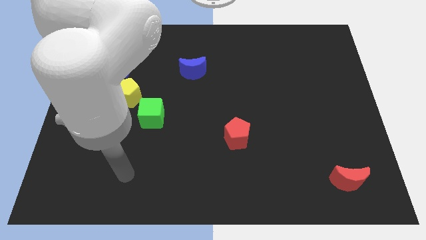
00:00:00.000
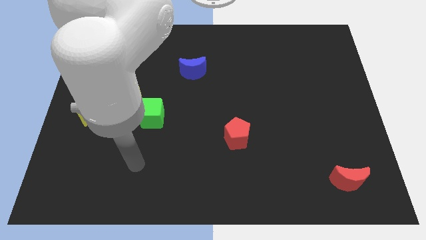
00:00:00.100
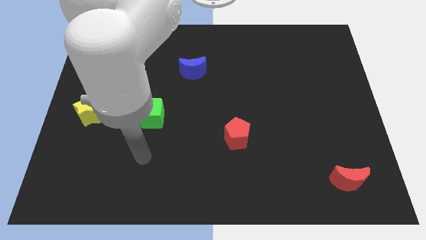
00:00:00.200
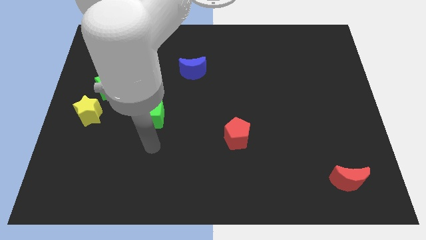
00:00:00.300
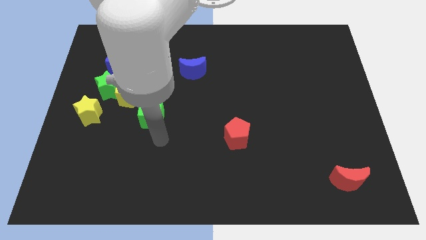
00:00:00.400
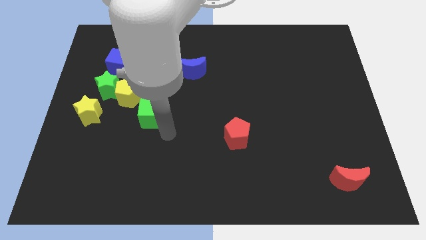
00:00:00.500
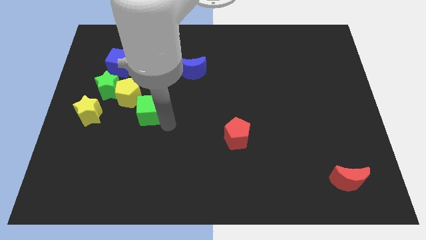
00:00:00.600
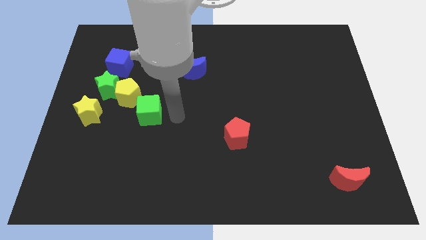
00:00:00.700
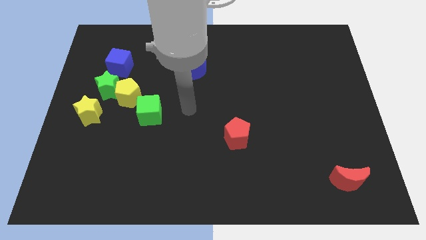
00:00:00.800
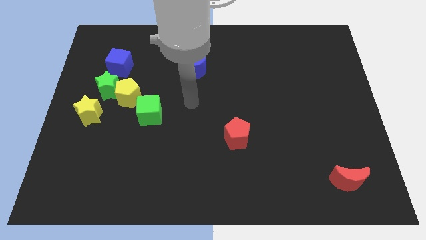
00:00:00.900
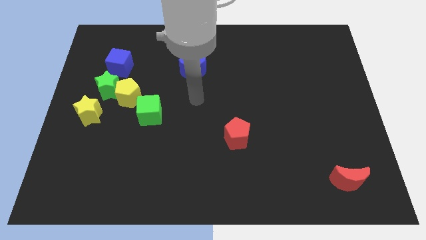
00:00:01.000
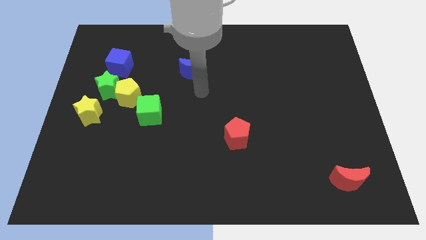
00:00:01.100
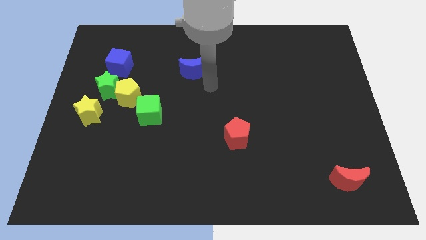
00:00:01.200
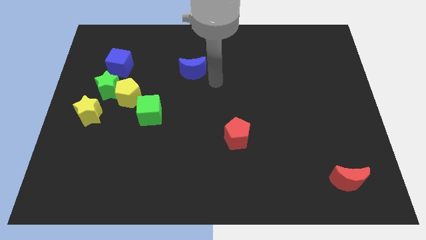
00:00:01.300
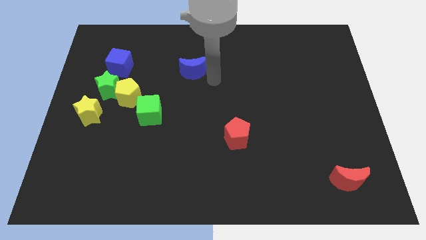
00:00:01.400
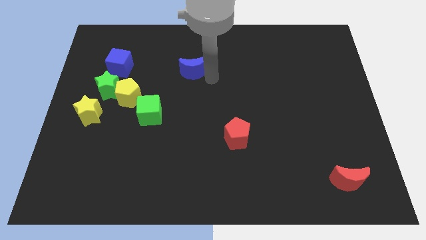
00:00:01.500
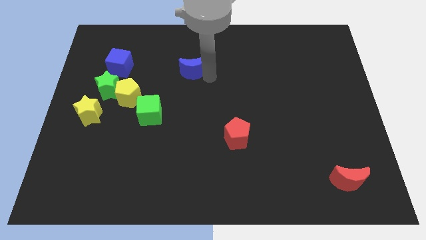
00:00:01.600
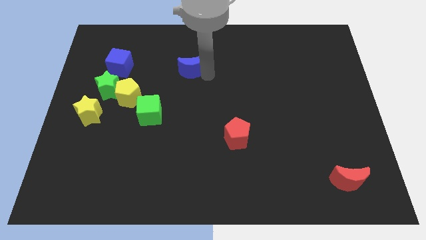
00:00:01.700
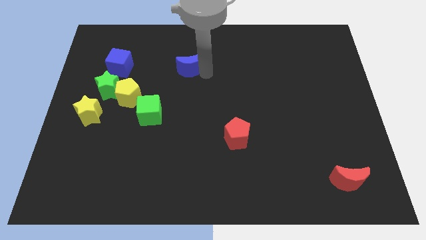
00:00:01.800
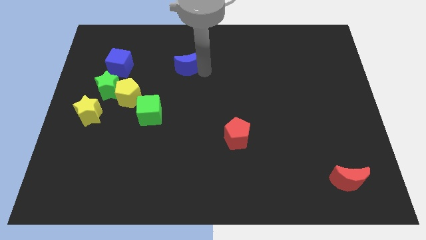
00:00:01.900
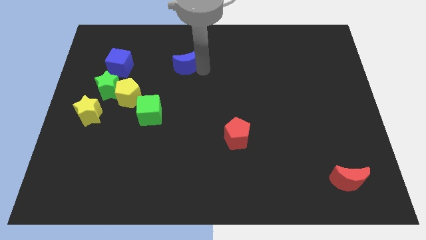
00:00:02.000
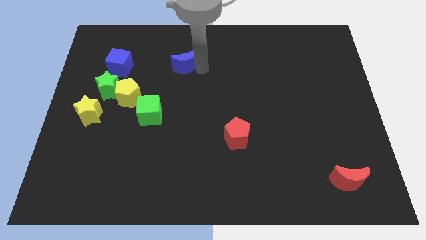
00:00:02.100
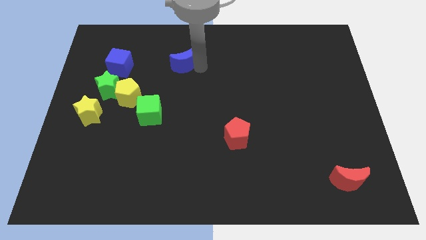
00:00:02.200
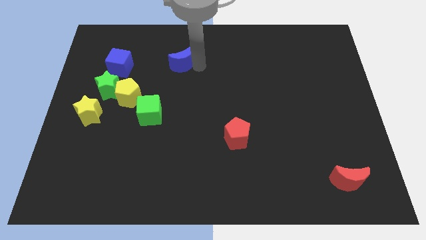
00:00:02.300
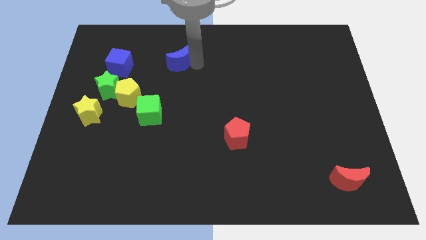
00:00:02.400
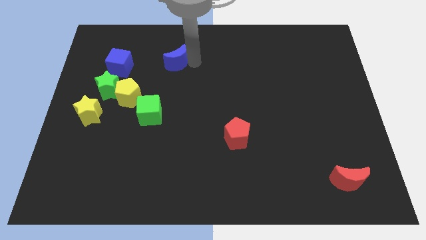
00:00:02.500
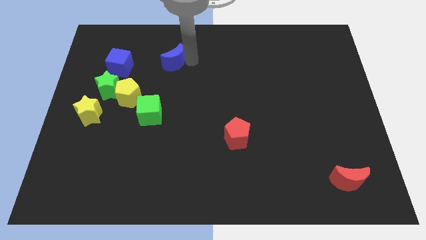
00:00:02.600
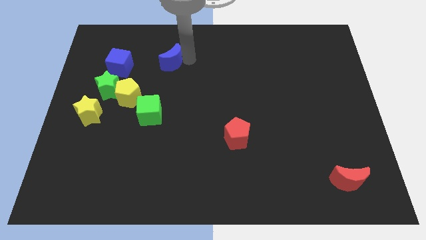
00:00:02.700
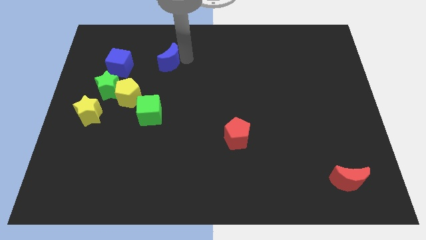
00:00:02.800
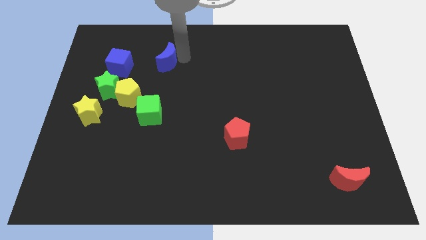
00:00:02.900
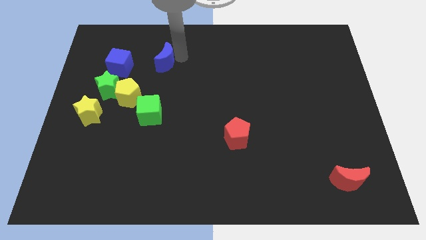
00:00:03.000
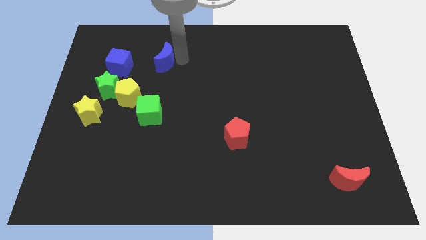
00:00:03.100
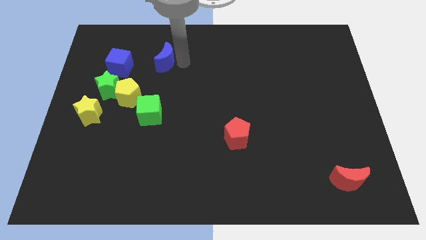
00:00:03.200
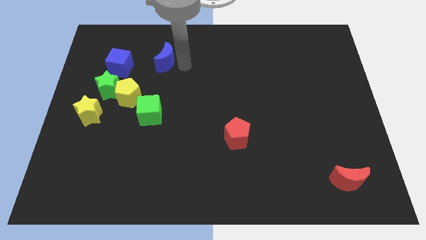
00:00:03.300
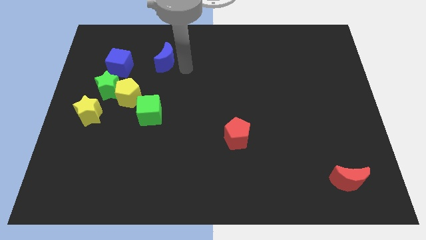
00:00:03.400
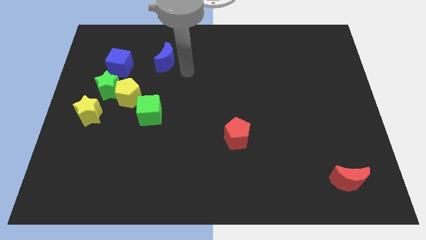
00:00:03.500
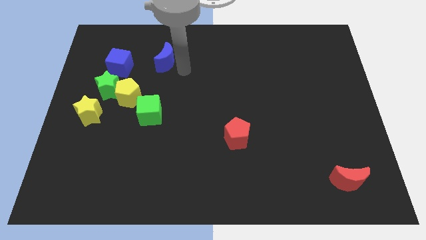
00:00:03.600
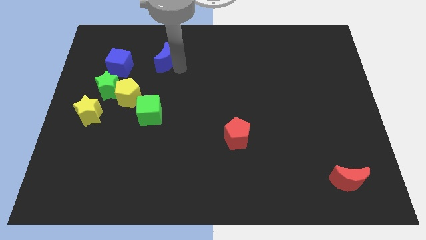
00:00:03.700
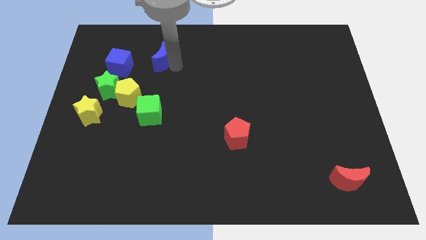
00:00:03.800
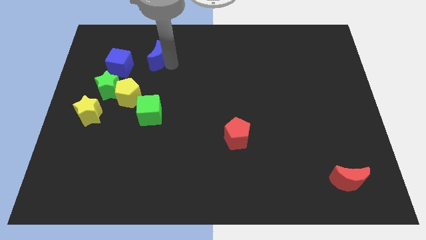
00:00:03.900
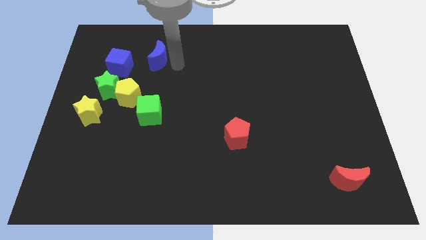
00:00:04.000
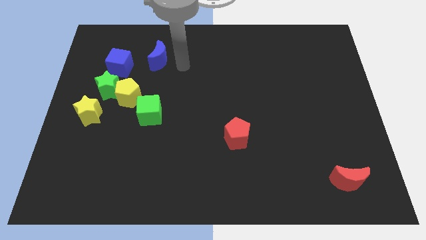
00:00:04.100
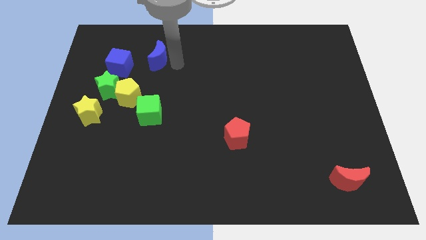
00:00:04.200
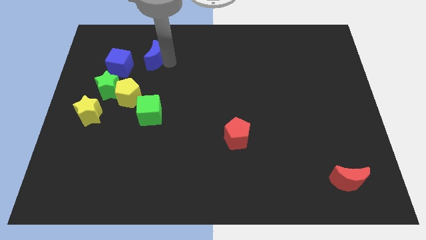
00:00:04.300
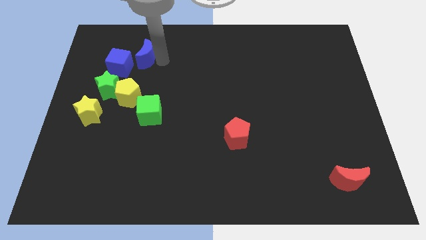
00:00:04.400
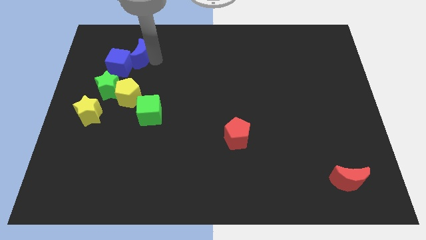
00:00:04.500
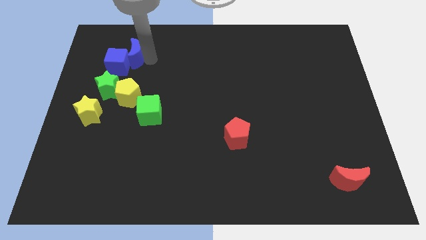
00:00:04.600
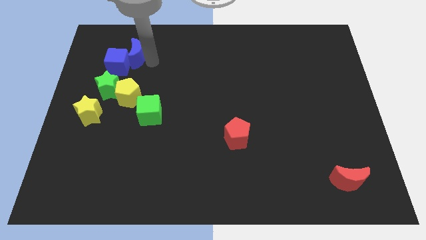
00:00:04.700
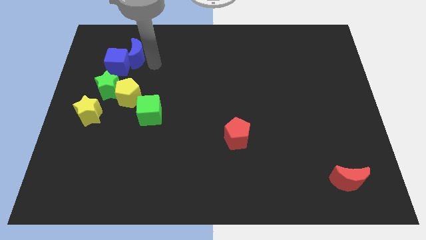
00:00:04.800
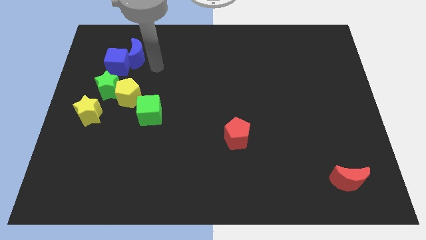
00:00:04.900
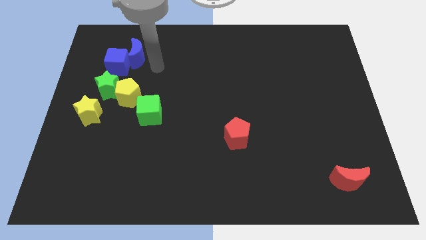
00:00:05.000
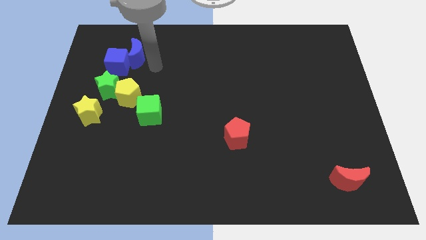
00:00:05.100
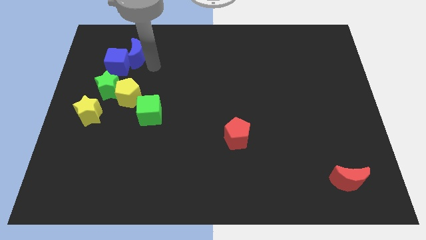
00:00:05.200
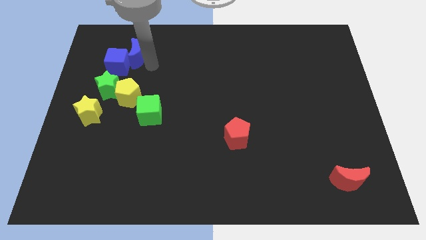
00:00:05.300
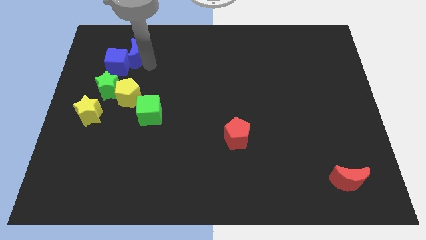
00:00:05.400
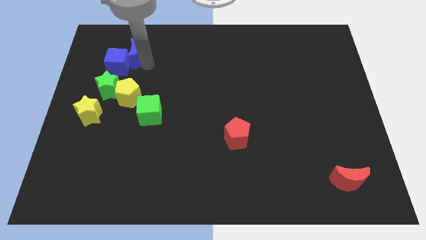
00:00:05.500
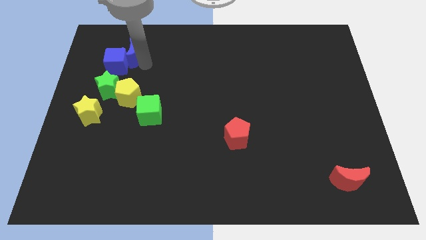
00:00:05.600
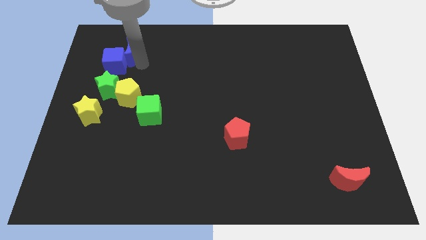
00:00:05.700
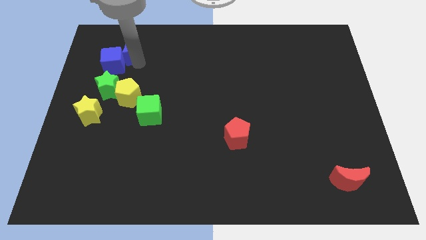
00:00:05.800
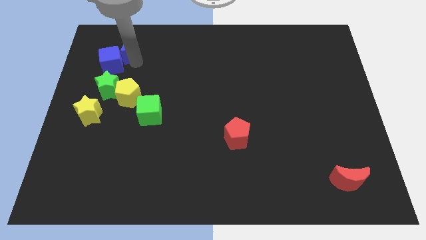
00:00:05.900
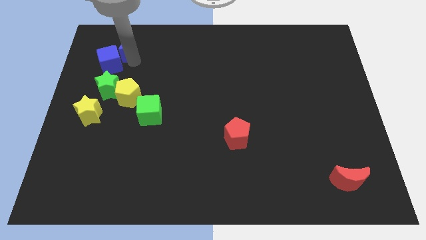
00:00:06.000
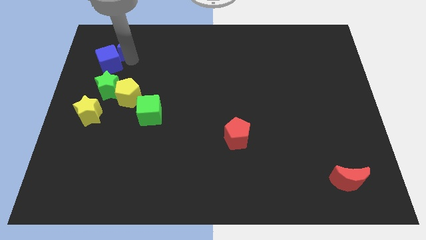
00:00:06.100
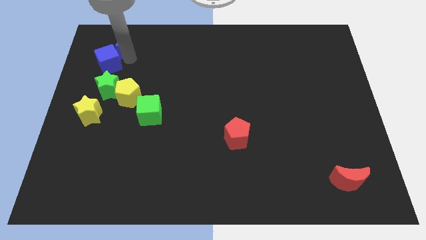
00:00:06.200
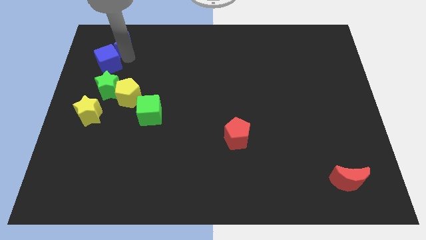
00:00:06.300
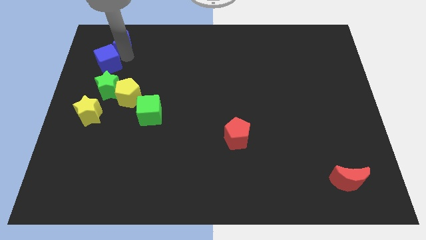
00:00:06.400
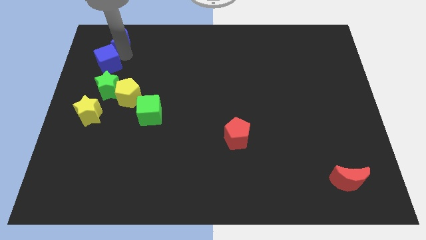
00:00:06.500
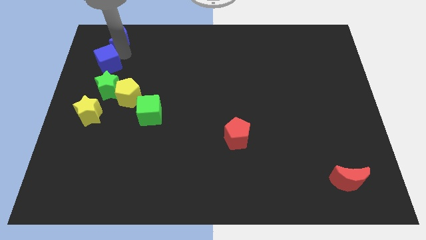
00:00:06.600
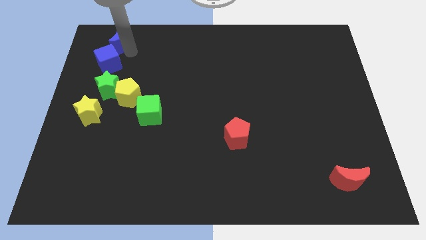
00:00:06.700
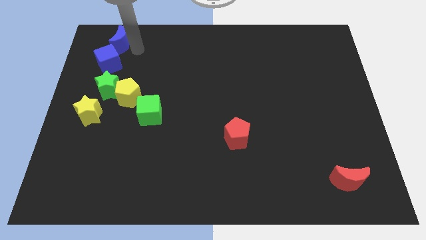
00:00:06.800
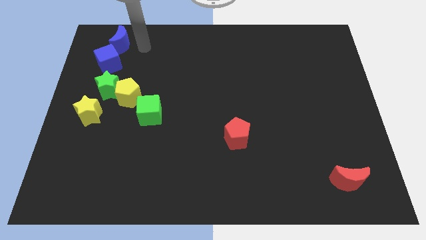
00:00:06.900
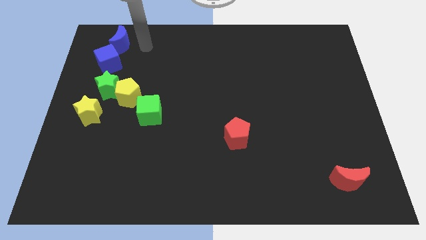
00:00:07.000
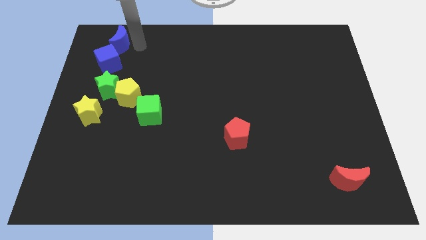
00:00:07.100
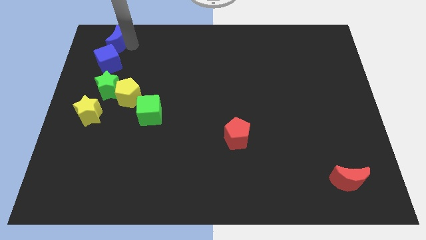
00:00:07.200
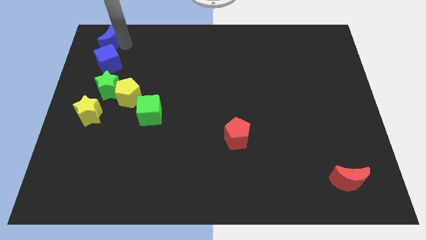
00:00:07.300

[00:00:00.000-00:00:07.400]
move the blue moon to the top left of the board
